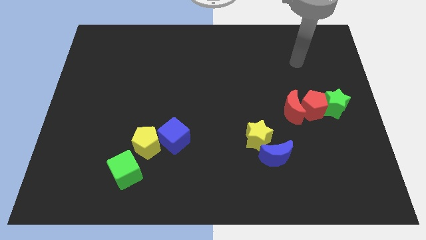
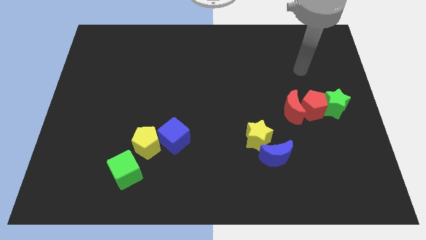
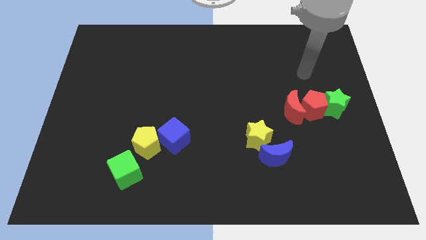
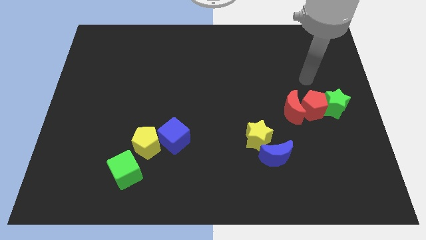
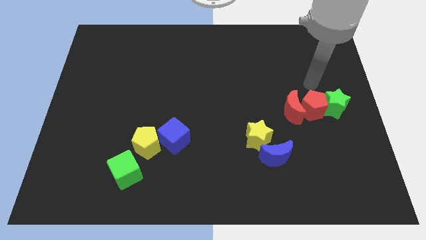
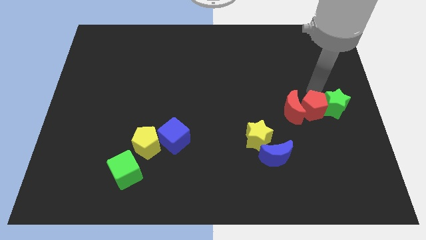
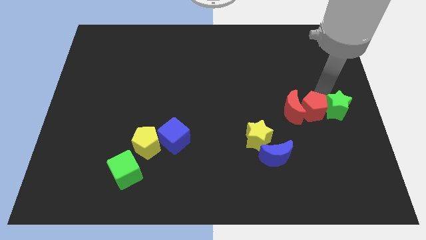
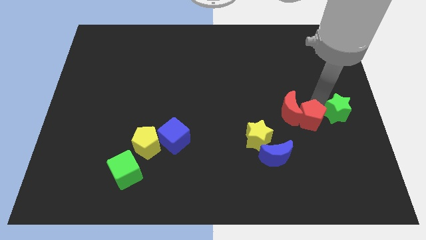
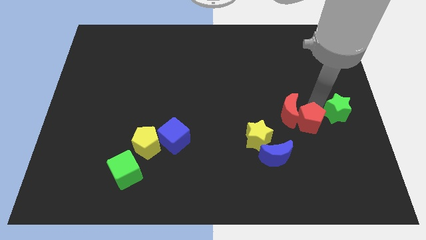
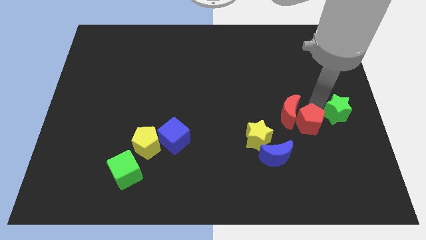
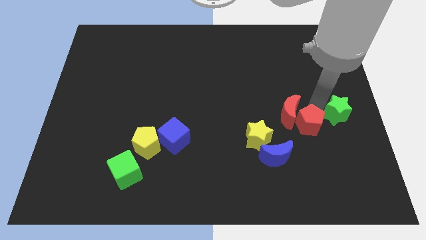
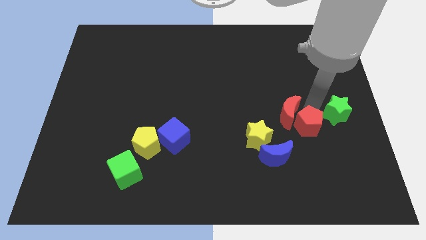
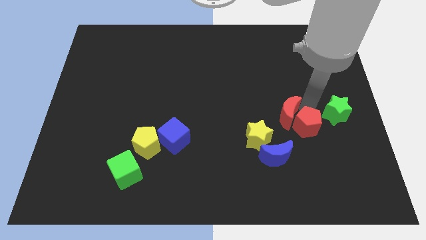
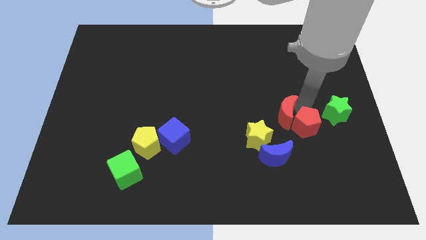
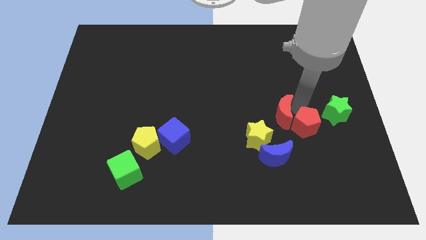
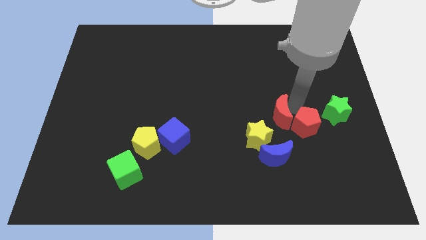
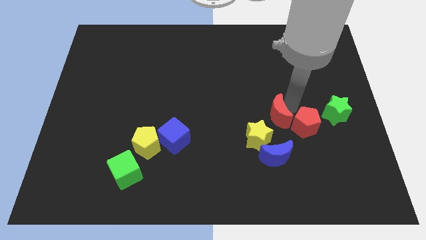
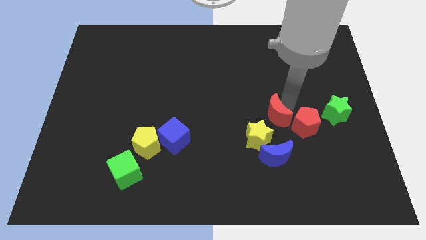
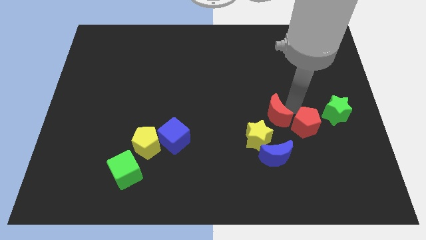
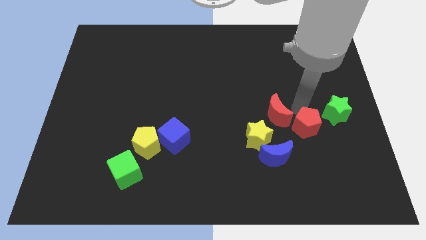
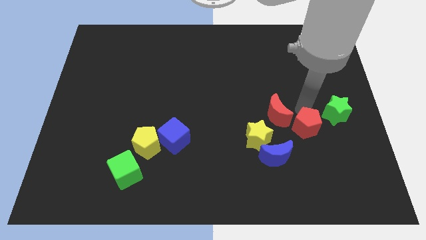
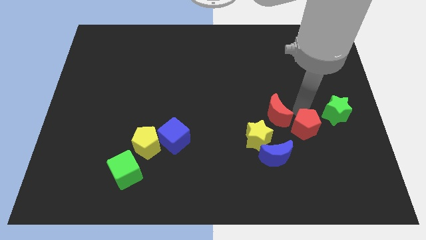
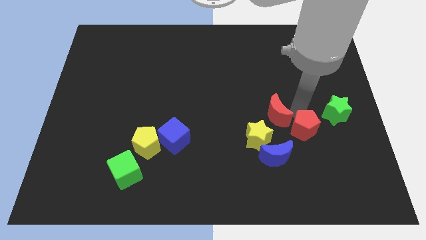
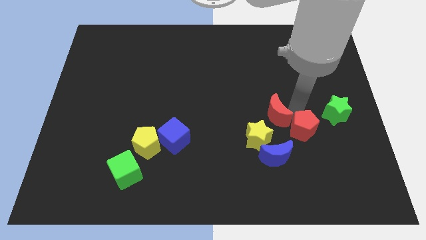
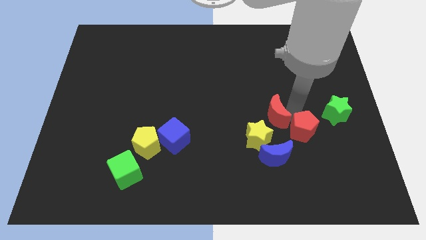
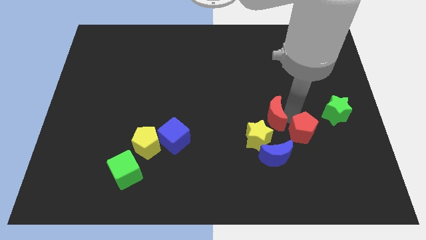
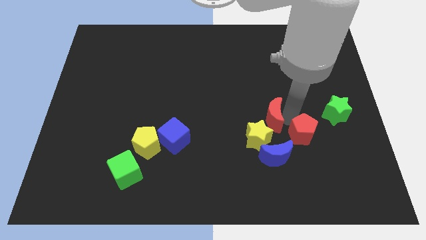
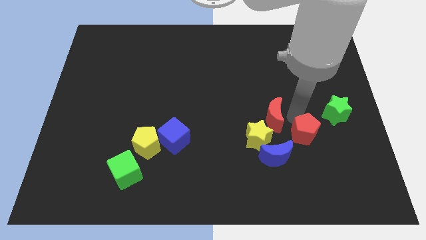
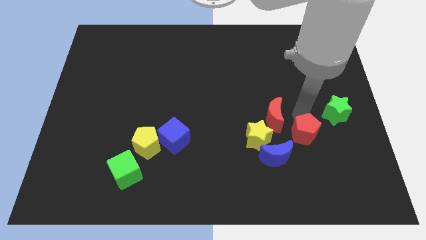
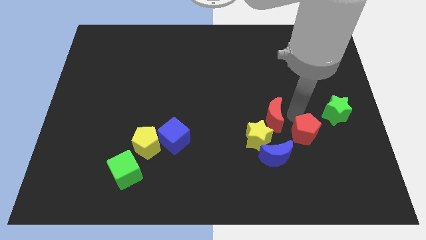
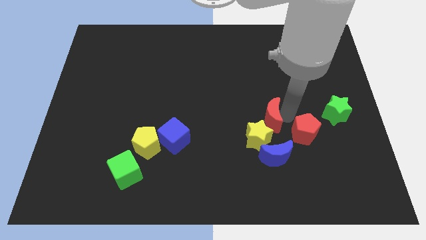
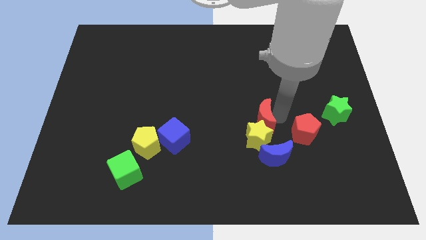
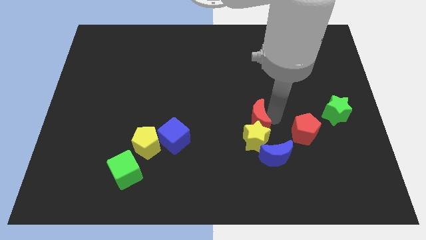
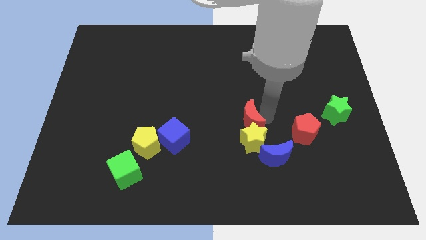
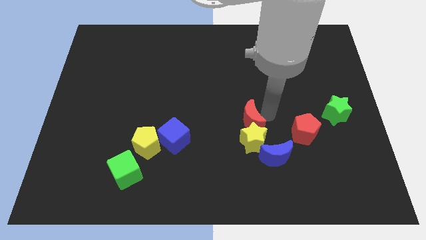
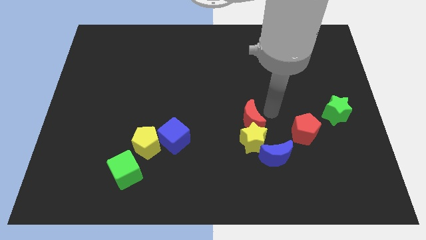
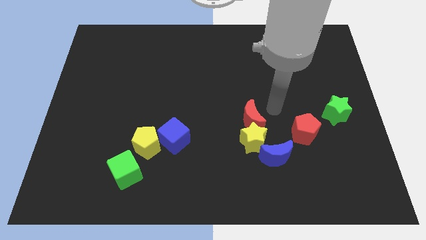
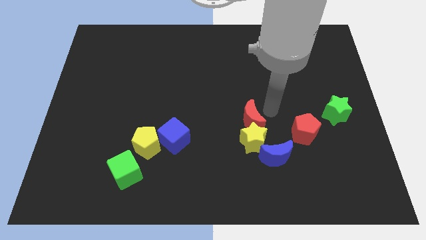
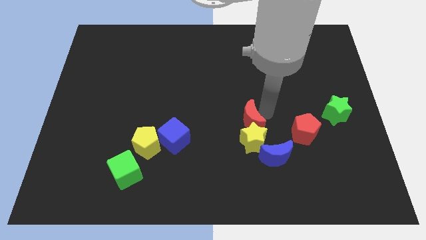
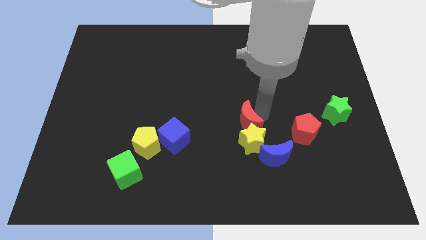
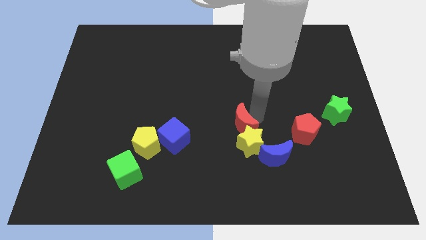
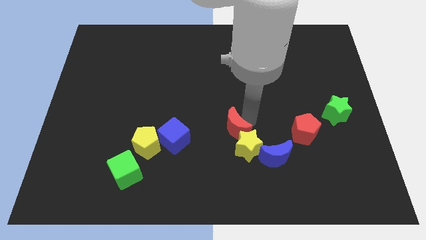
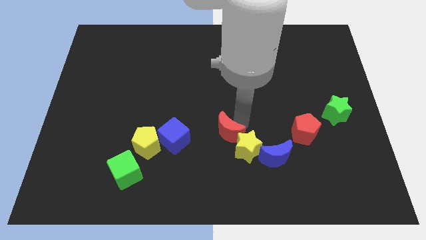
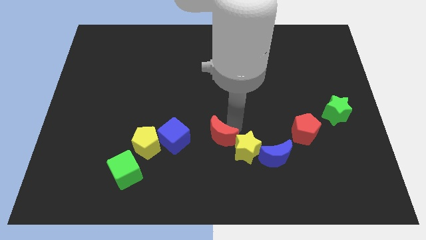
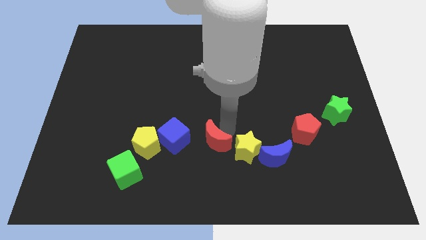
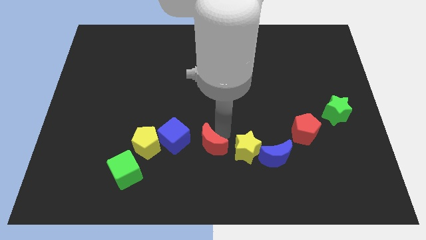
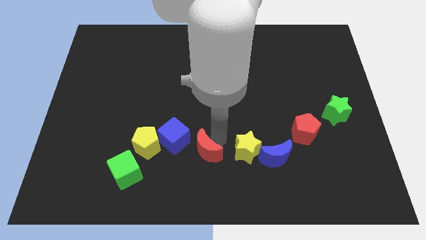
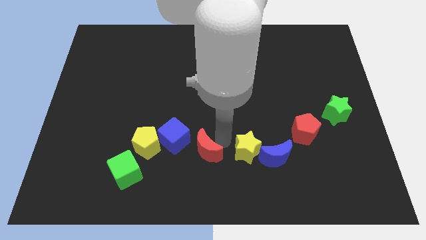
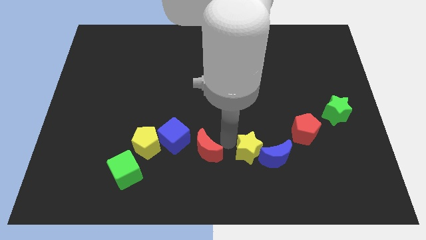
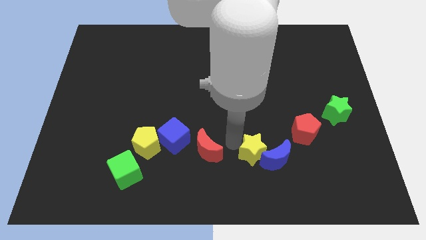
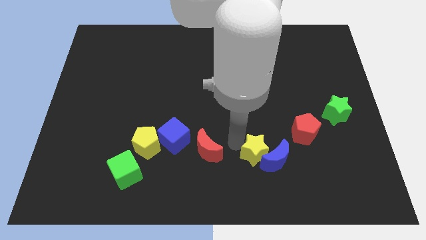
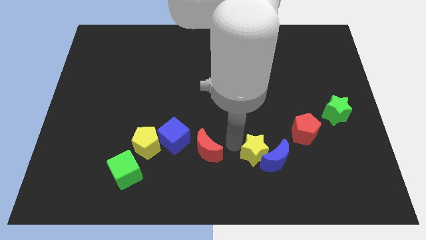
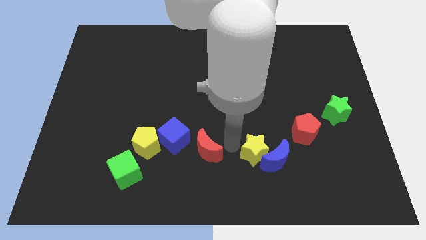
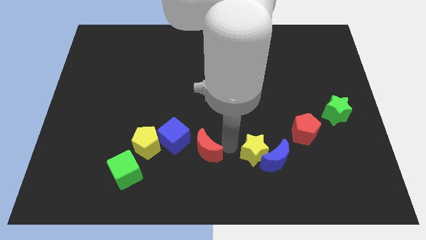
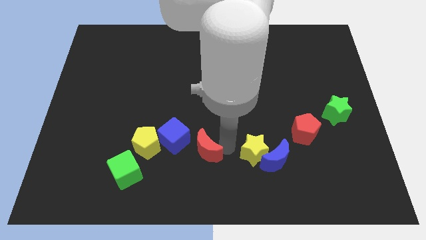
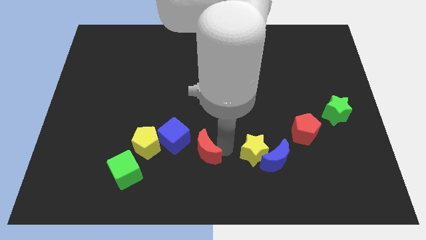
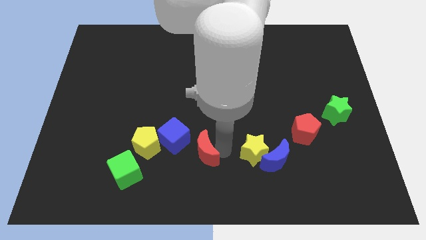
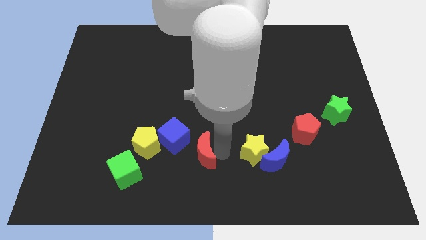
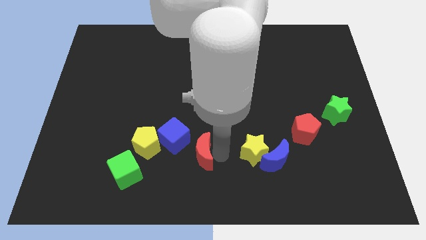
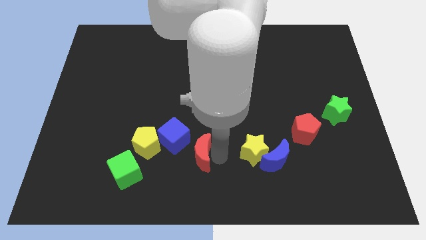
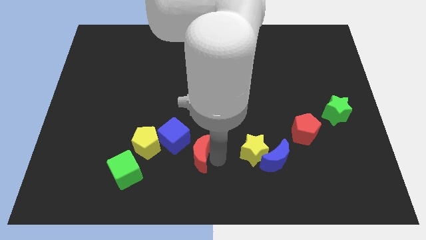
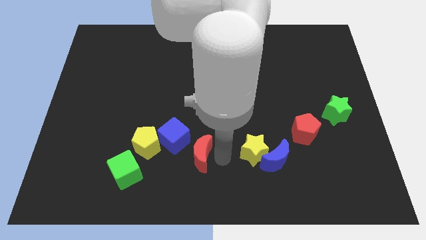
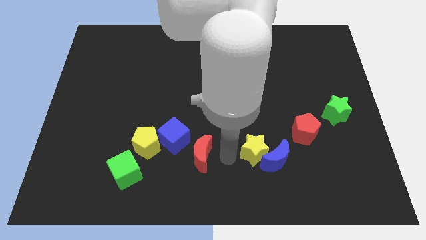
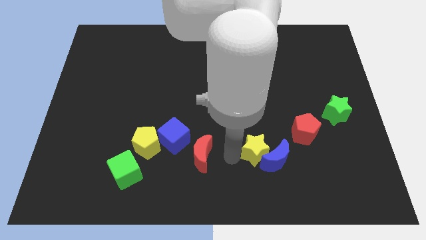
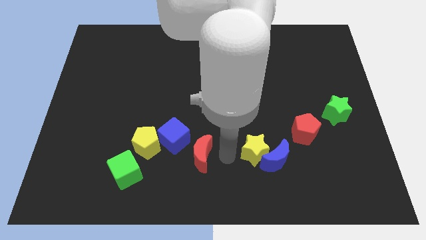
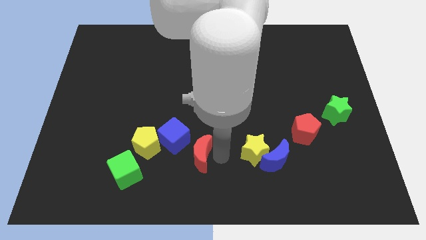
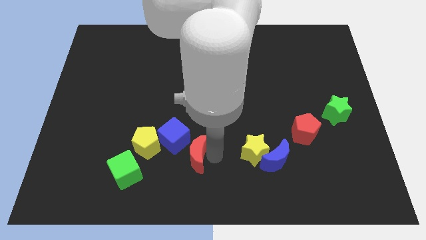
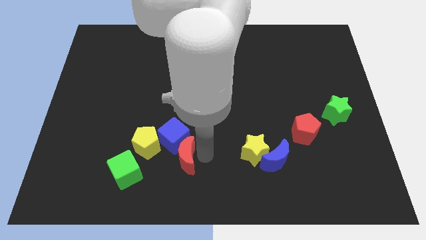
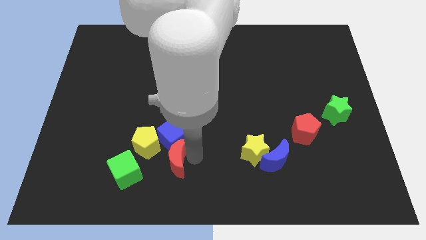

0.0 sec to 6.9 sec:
move the red moon diagonally down and to the left of the blue cube
